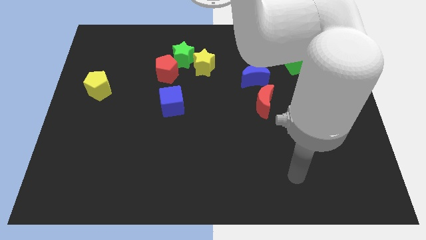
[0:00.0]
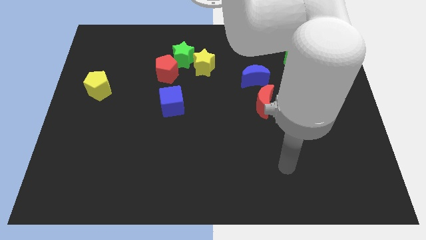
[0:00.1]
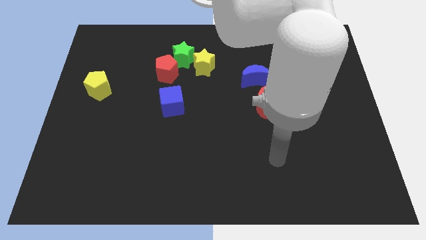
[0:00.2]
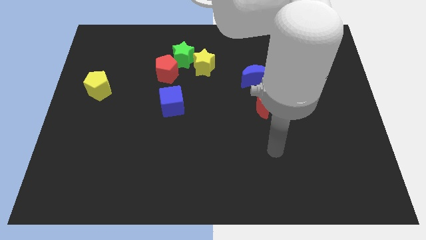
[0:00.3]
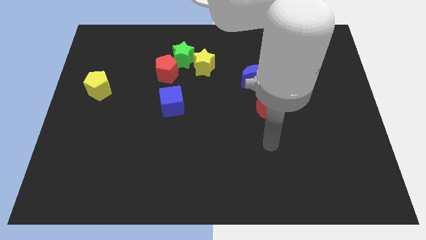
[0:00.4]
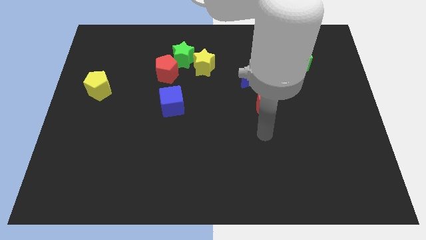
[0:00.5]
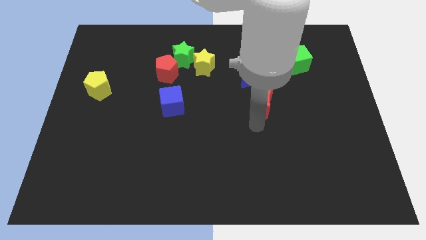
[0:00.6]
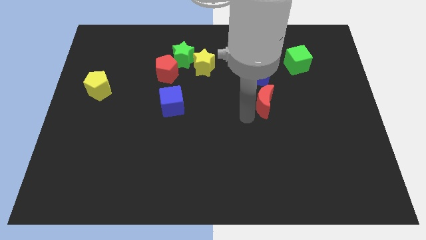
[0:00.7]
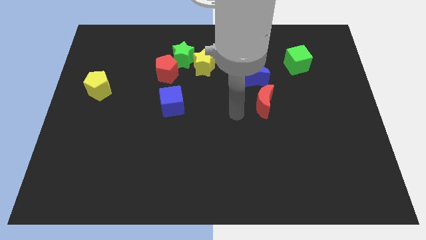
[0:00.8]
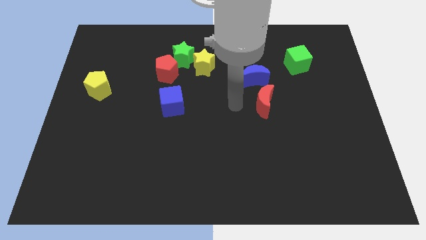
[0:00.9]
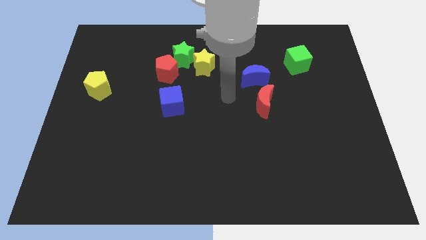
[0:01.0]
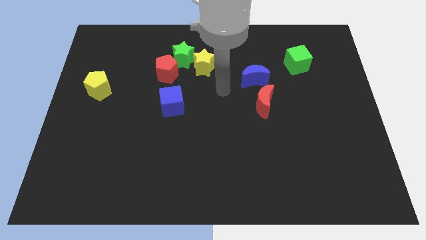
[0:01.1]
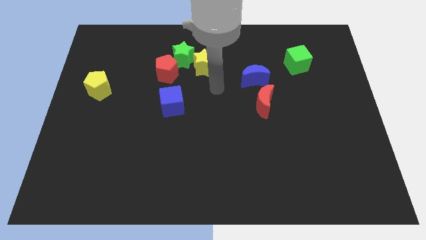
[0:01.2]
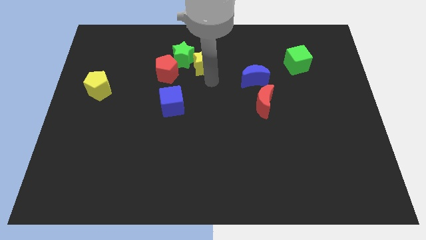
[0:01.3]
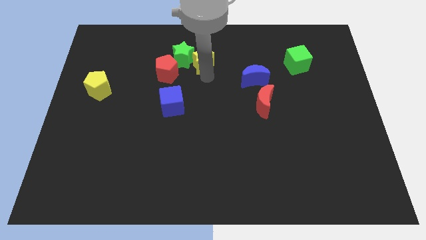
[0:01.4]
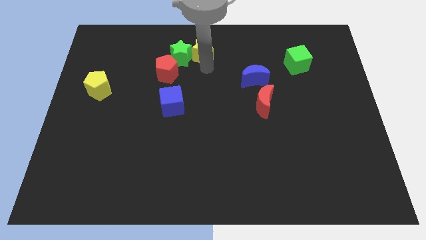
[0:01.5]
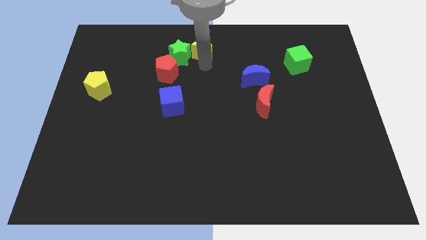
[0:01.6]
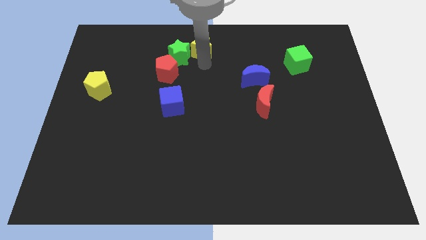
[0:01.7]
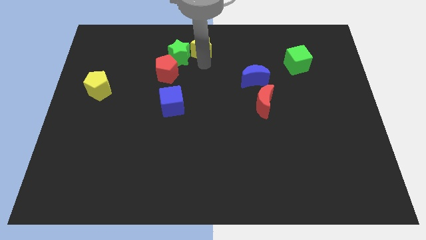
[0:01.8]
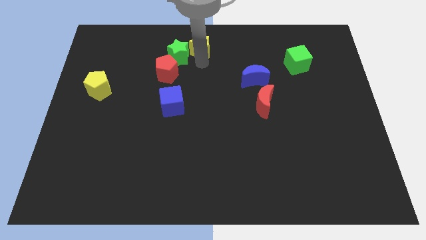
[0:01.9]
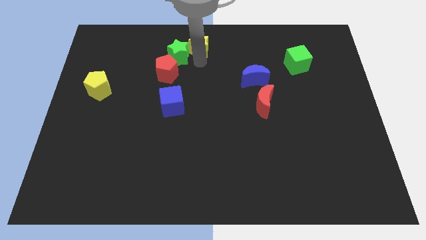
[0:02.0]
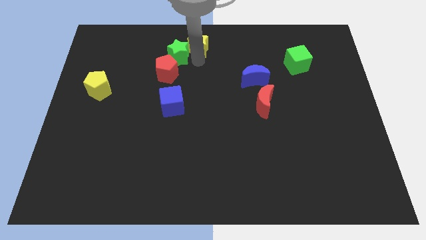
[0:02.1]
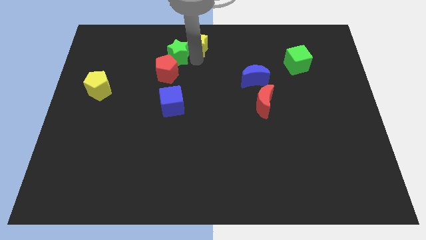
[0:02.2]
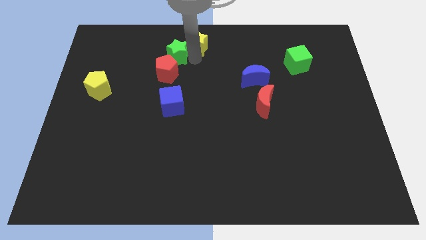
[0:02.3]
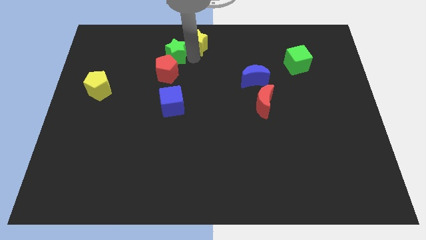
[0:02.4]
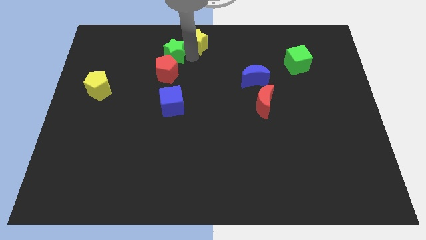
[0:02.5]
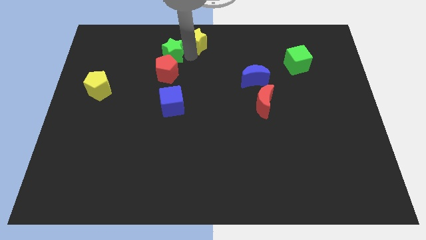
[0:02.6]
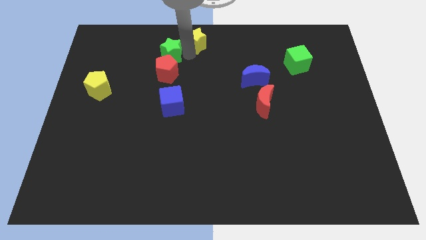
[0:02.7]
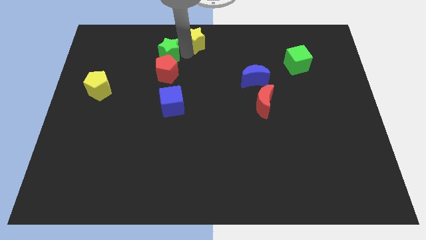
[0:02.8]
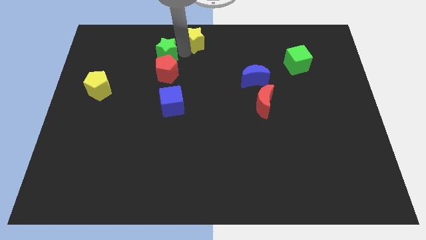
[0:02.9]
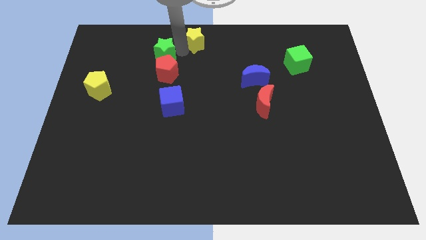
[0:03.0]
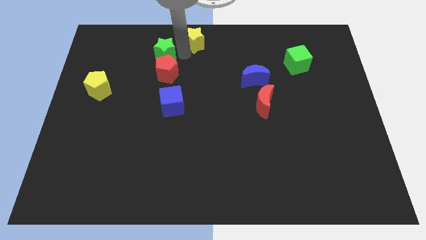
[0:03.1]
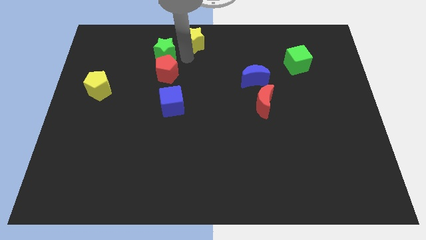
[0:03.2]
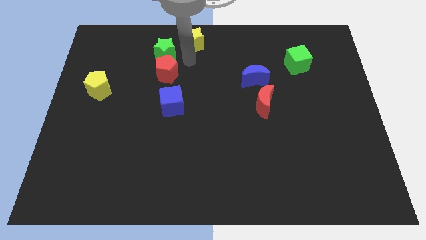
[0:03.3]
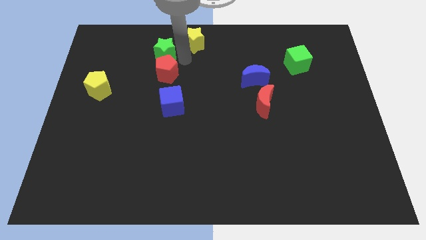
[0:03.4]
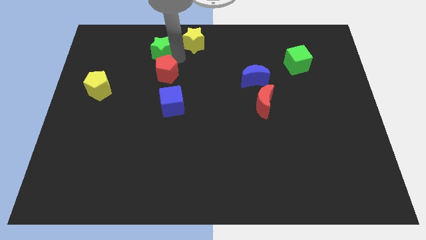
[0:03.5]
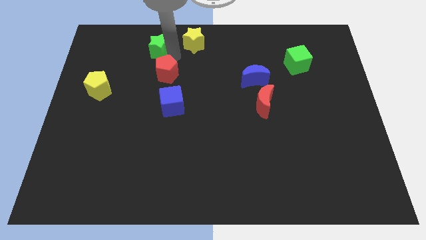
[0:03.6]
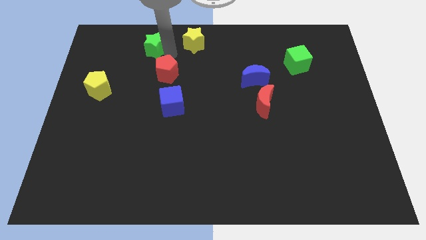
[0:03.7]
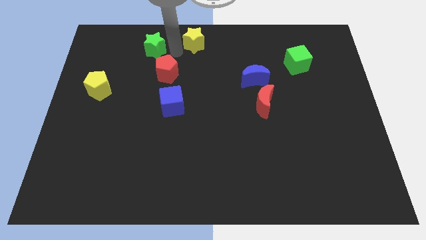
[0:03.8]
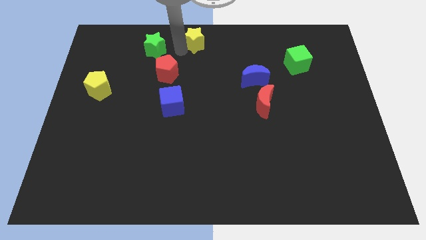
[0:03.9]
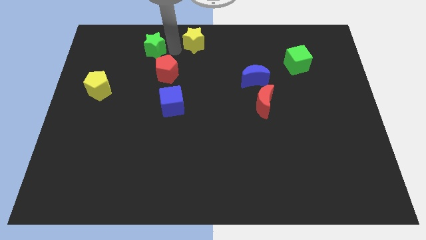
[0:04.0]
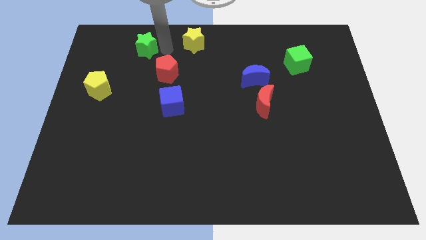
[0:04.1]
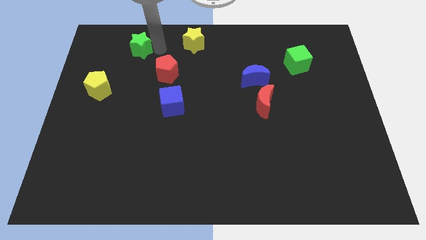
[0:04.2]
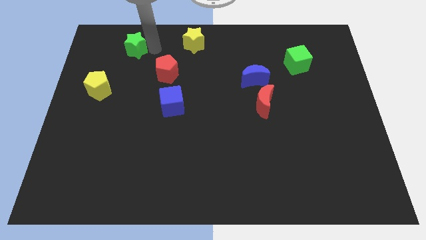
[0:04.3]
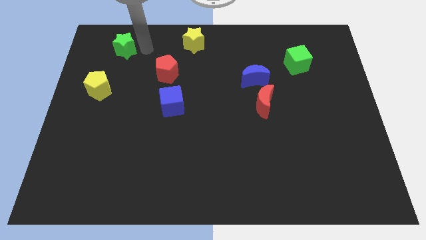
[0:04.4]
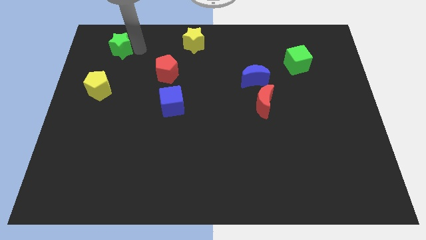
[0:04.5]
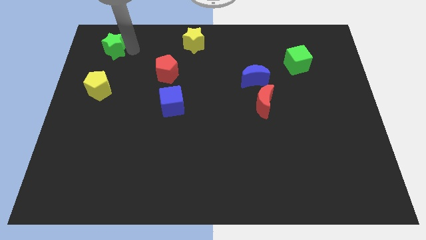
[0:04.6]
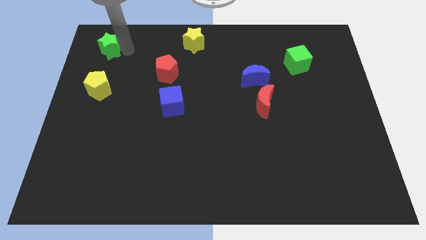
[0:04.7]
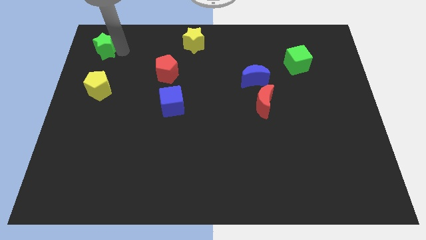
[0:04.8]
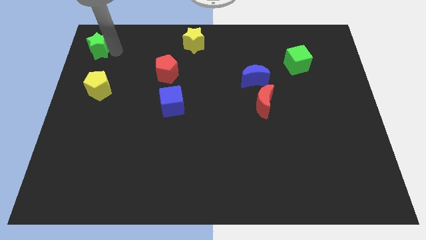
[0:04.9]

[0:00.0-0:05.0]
move the green star to the upper left corner
